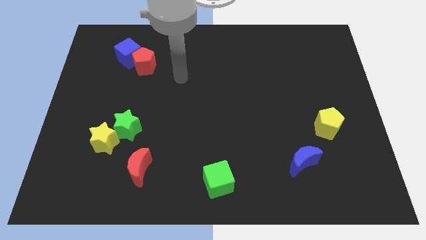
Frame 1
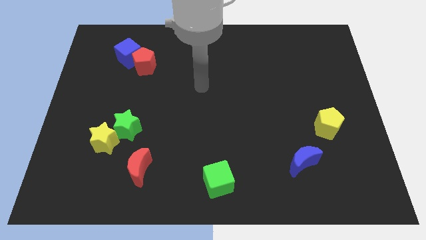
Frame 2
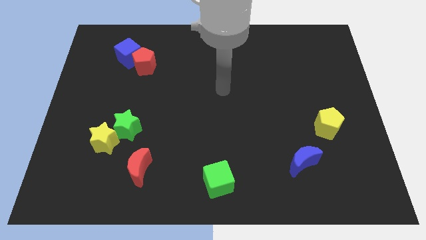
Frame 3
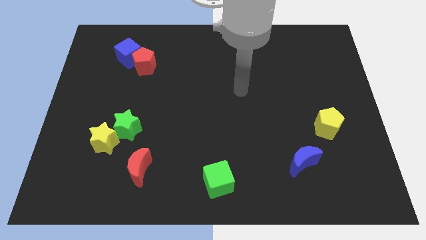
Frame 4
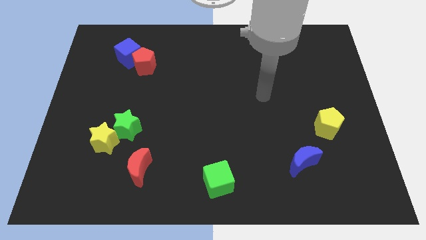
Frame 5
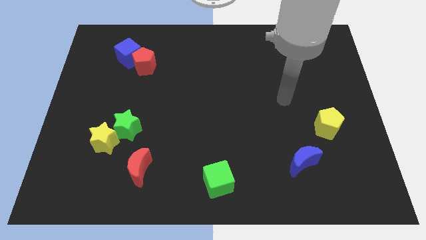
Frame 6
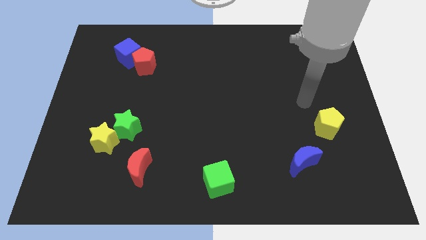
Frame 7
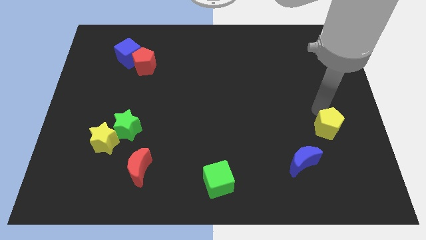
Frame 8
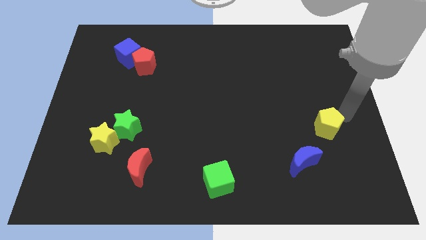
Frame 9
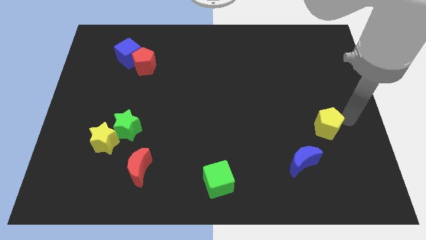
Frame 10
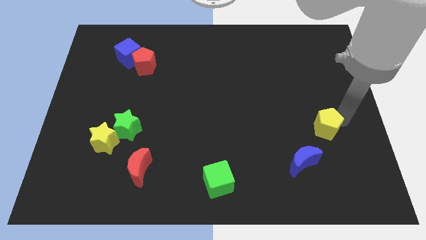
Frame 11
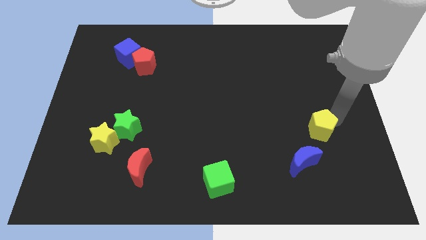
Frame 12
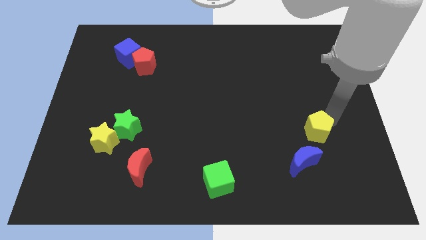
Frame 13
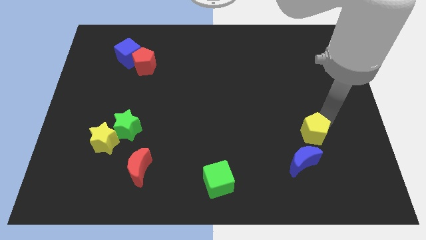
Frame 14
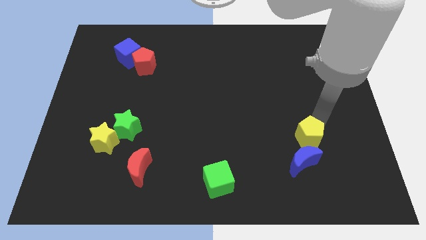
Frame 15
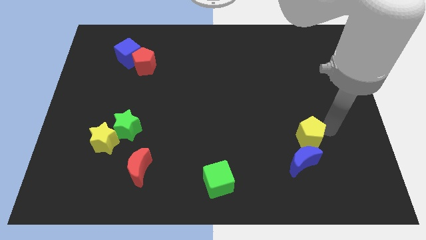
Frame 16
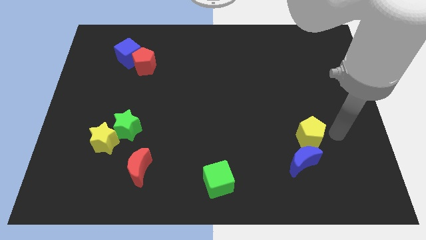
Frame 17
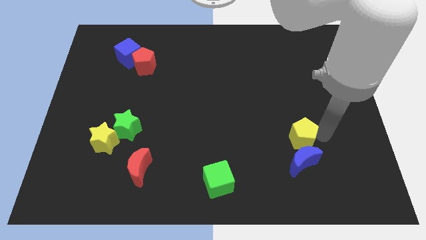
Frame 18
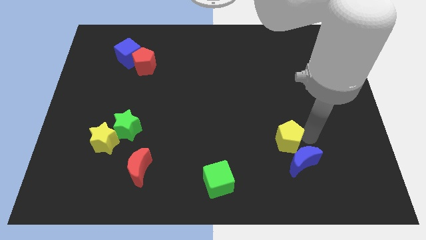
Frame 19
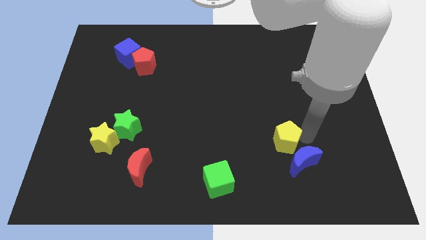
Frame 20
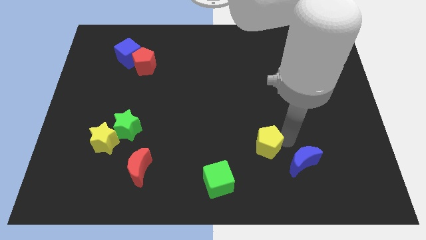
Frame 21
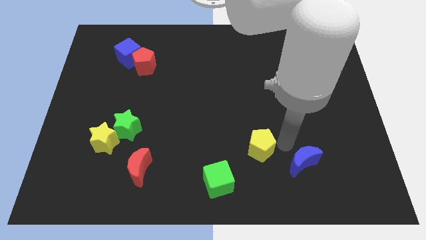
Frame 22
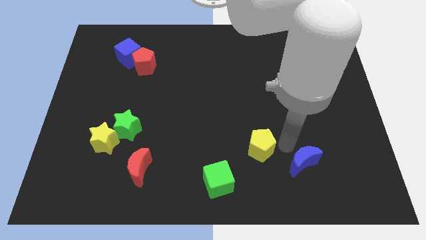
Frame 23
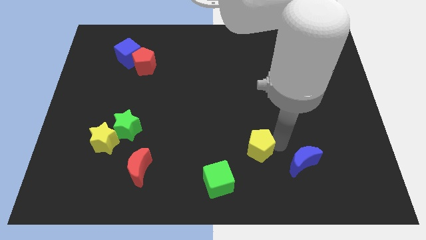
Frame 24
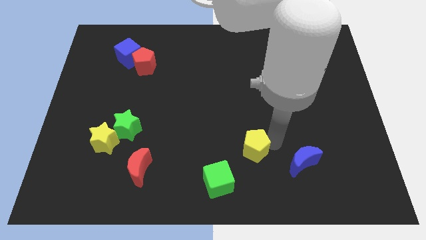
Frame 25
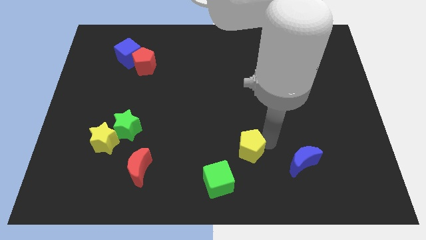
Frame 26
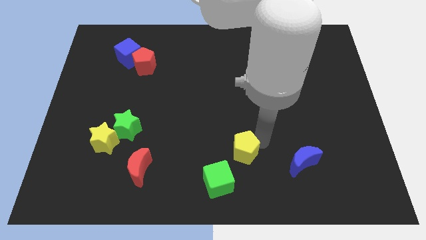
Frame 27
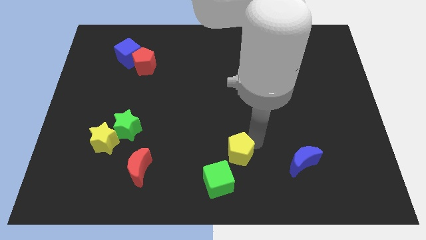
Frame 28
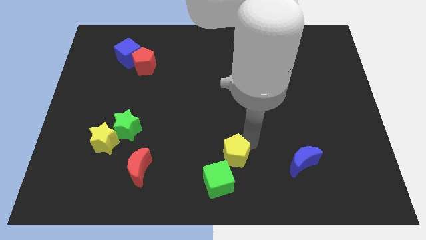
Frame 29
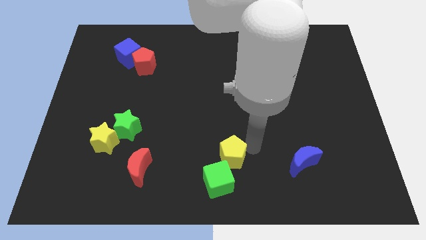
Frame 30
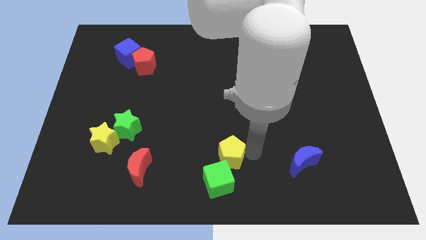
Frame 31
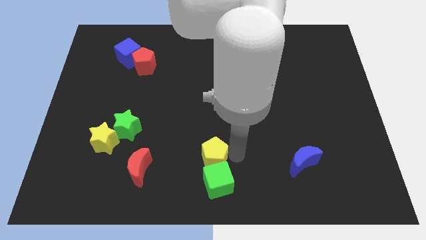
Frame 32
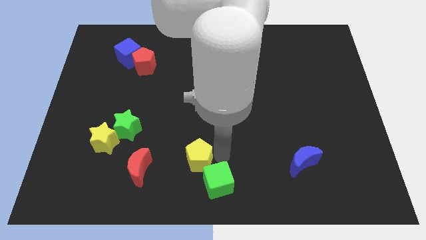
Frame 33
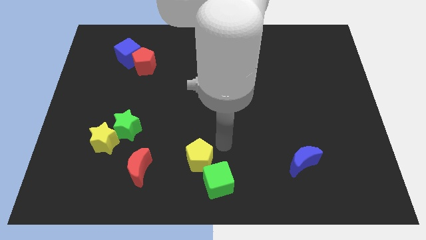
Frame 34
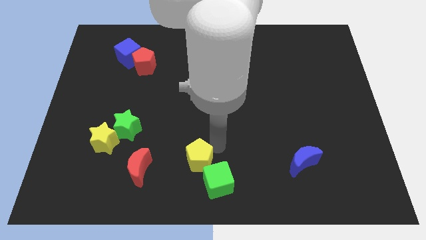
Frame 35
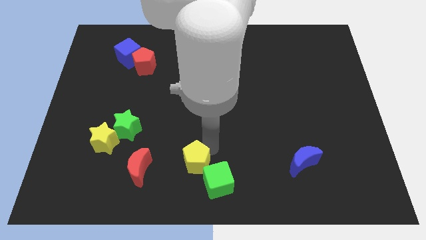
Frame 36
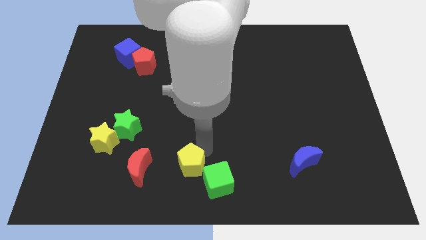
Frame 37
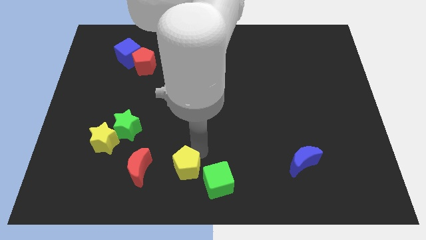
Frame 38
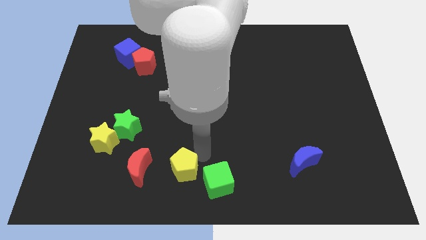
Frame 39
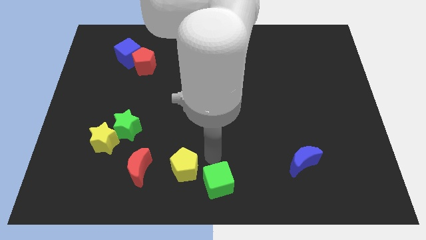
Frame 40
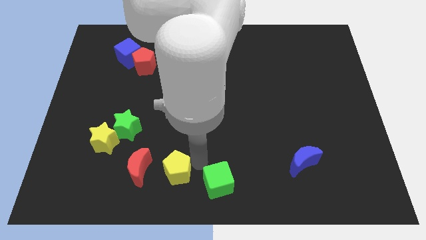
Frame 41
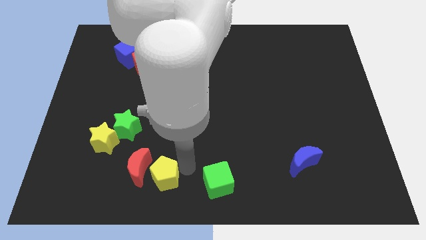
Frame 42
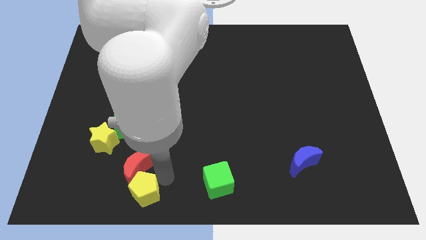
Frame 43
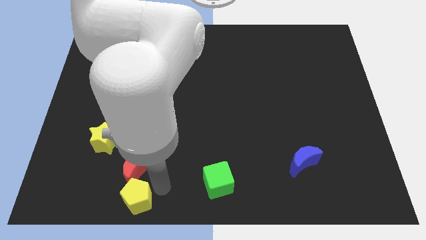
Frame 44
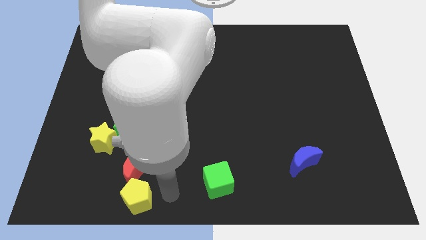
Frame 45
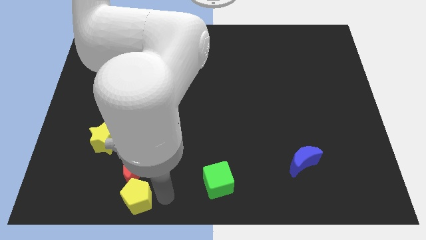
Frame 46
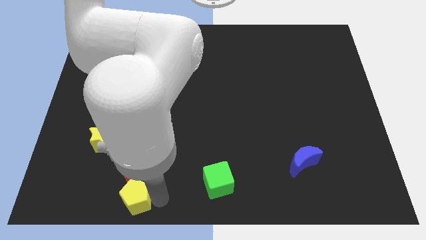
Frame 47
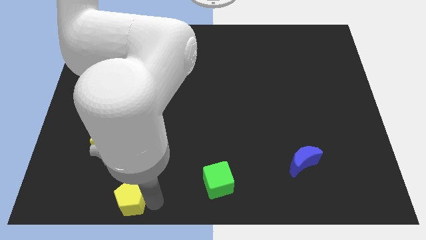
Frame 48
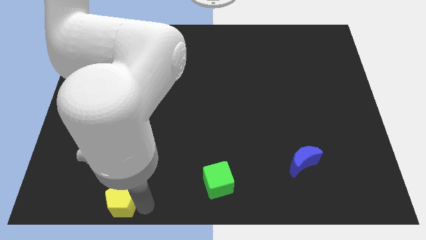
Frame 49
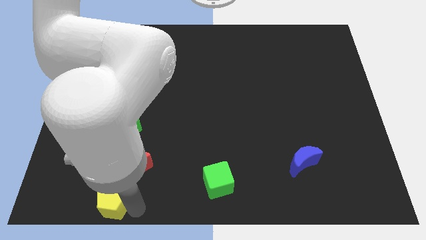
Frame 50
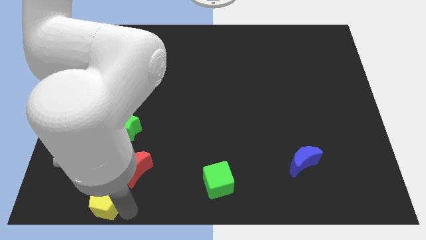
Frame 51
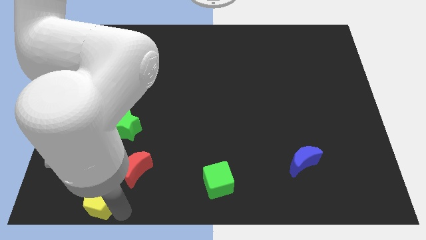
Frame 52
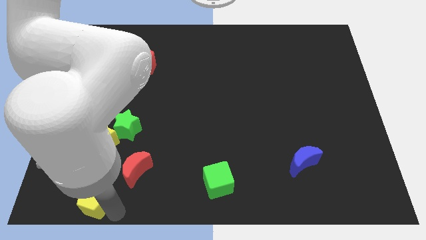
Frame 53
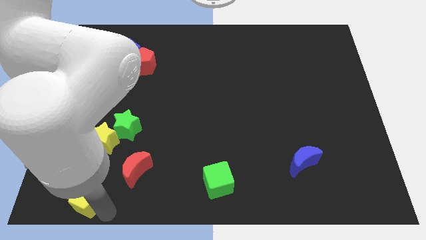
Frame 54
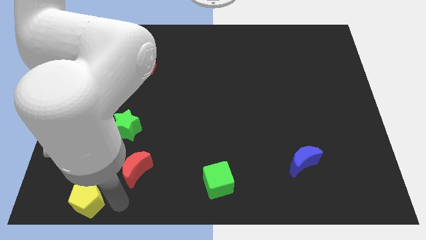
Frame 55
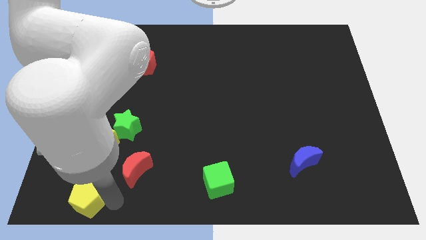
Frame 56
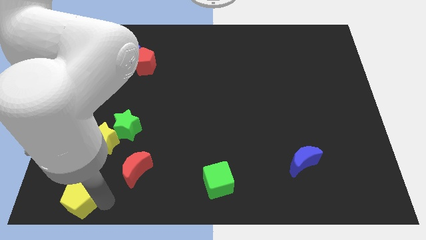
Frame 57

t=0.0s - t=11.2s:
move the yellow pentagon to the bottom left corner

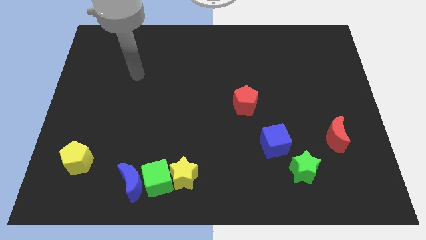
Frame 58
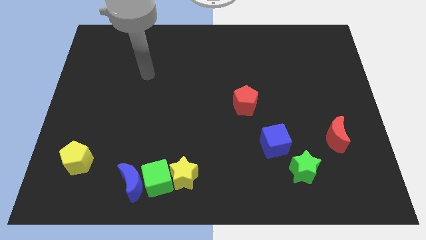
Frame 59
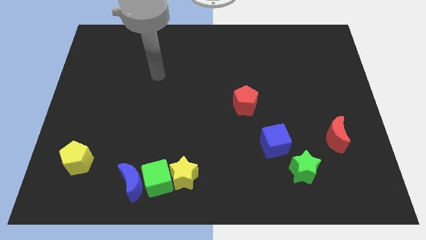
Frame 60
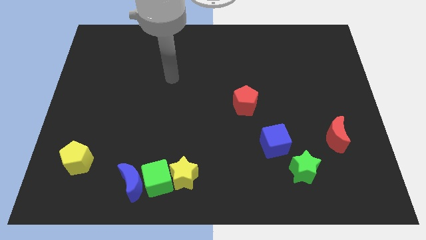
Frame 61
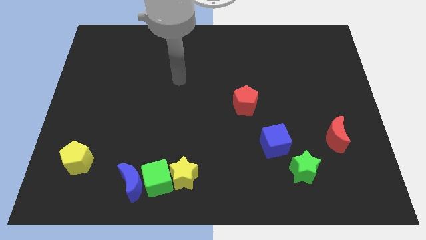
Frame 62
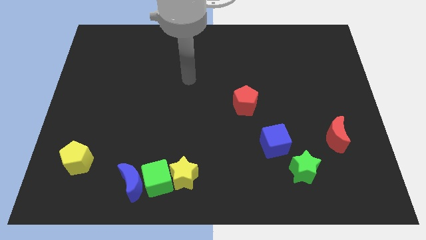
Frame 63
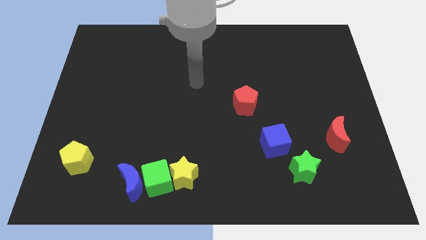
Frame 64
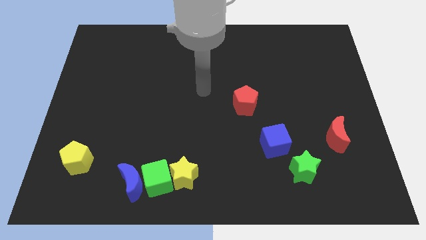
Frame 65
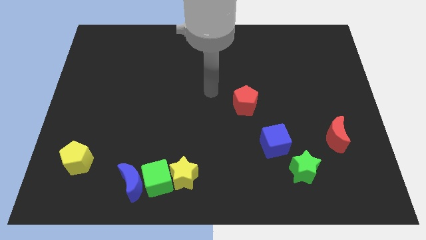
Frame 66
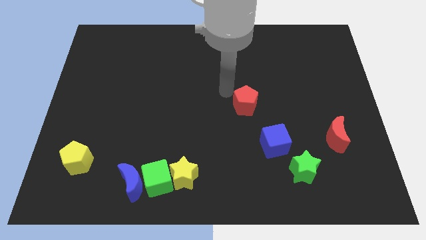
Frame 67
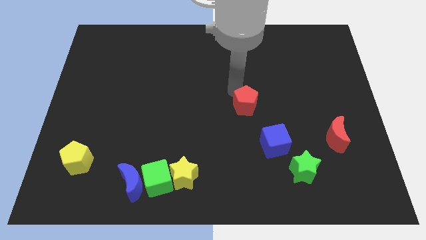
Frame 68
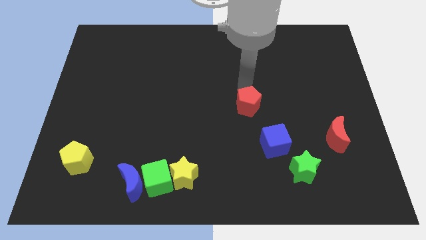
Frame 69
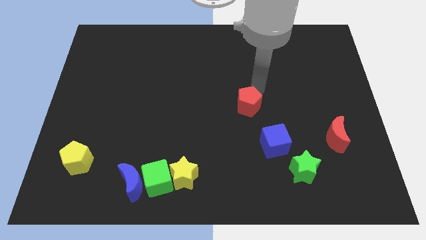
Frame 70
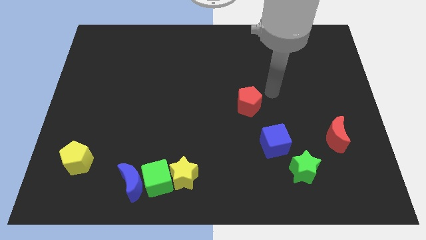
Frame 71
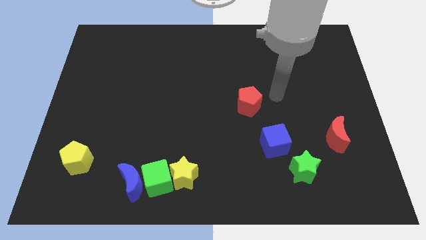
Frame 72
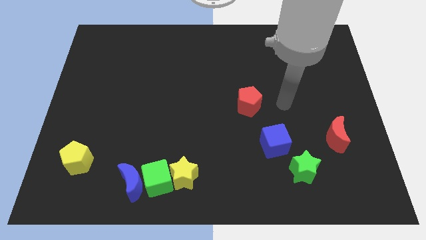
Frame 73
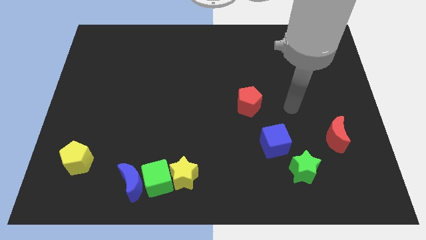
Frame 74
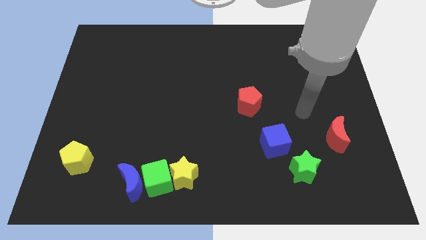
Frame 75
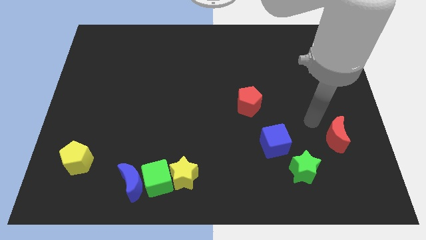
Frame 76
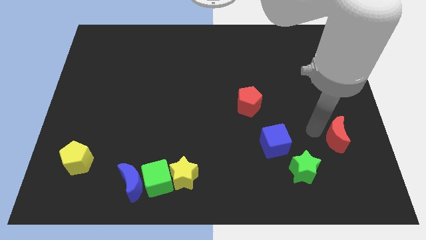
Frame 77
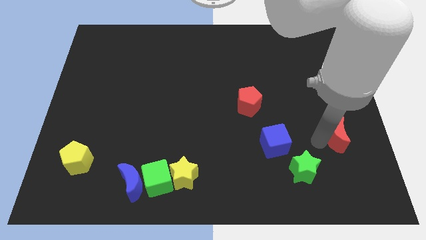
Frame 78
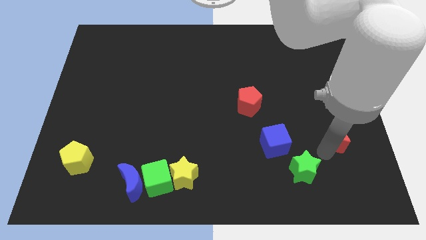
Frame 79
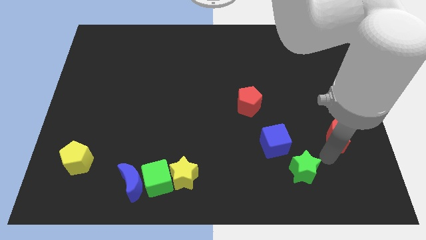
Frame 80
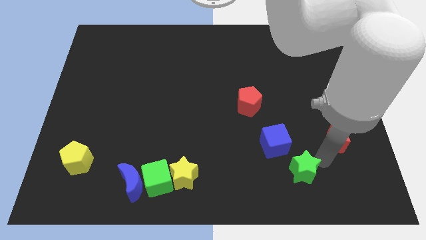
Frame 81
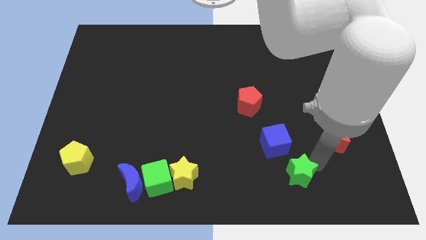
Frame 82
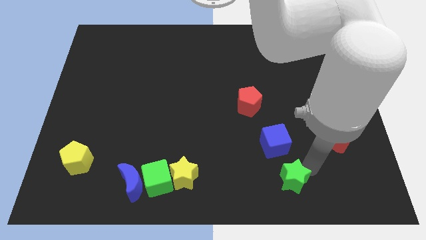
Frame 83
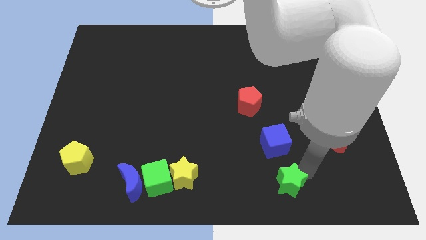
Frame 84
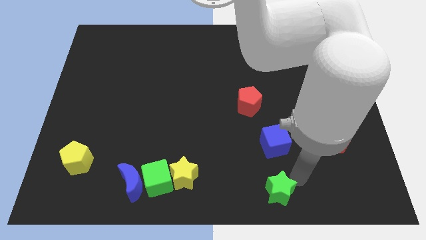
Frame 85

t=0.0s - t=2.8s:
slide the green star to the bottom
